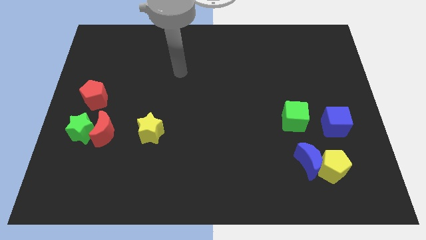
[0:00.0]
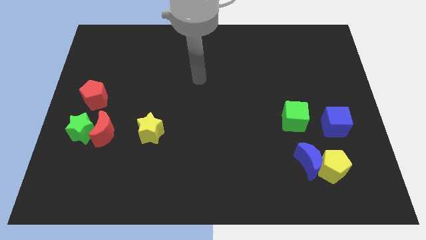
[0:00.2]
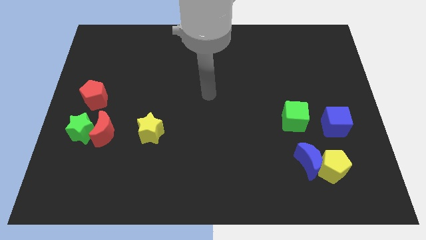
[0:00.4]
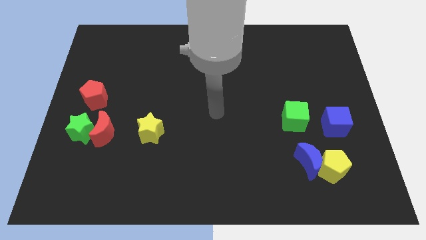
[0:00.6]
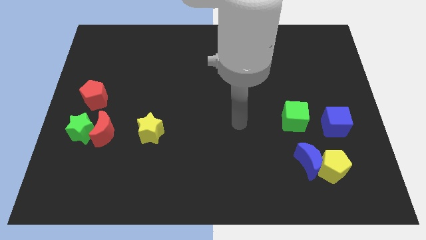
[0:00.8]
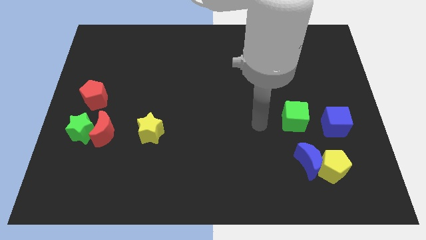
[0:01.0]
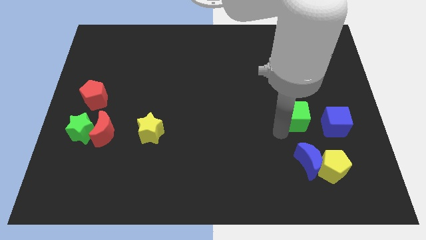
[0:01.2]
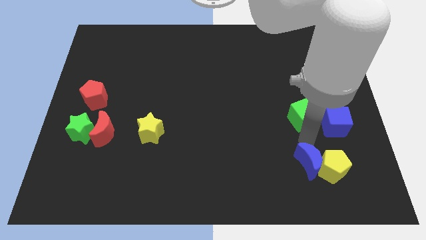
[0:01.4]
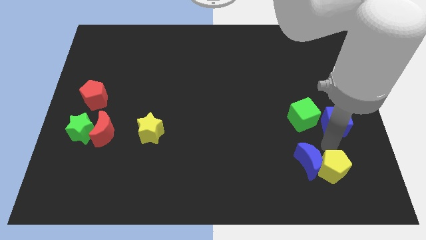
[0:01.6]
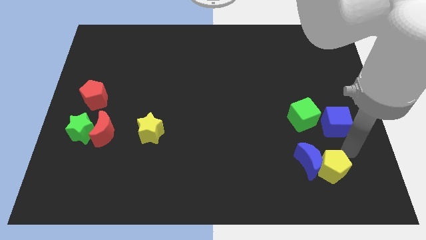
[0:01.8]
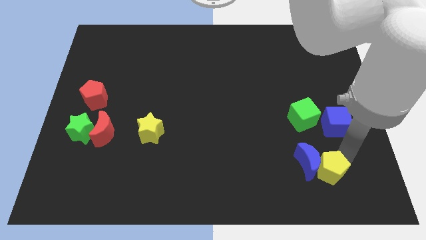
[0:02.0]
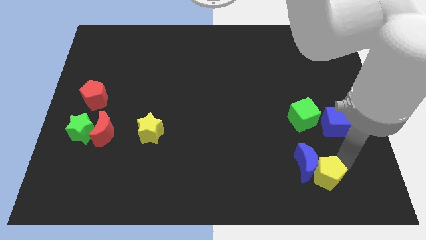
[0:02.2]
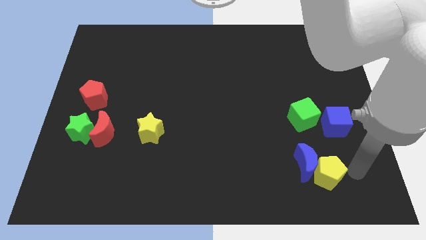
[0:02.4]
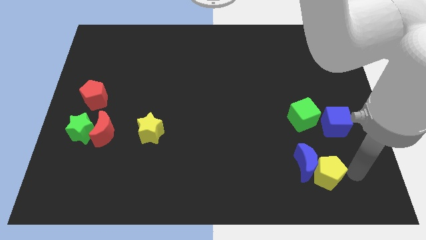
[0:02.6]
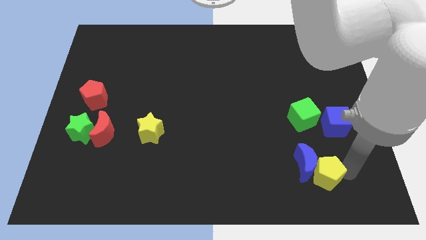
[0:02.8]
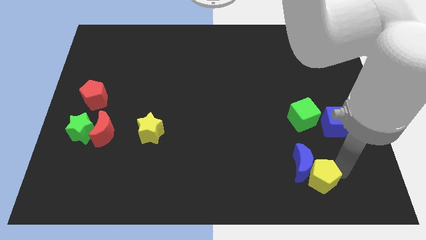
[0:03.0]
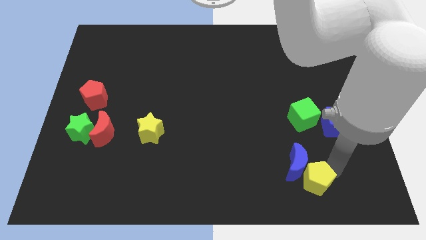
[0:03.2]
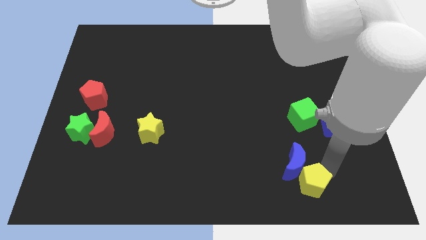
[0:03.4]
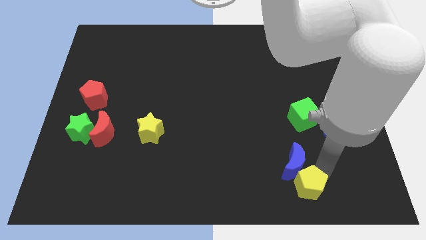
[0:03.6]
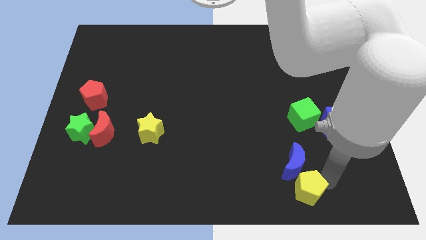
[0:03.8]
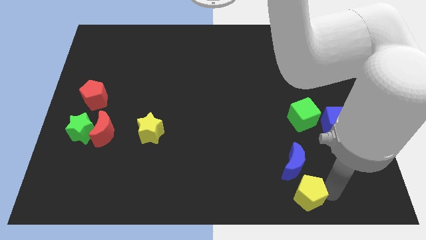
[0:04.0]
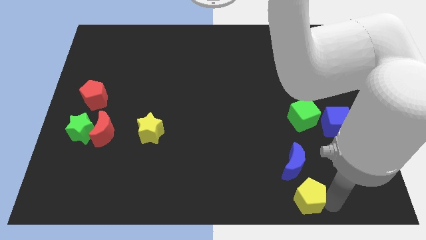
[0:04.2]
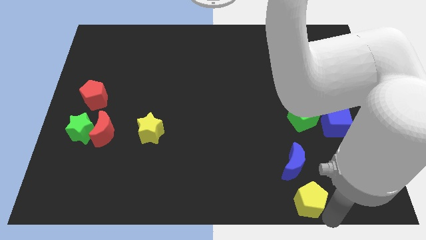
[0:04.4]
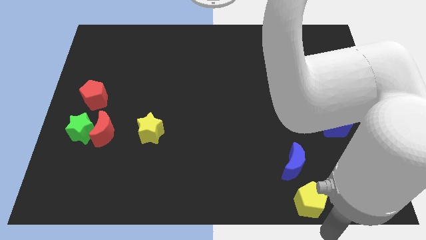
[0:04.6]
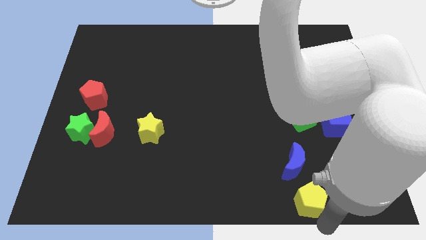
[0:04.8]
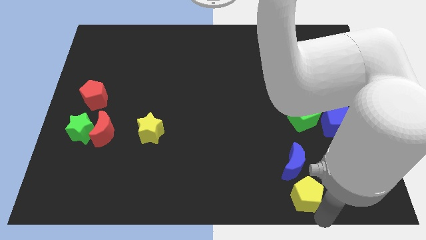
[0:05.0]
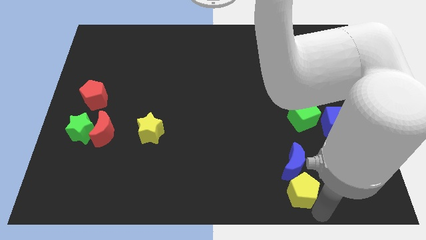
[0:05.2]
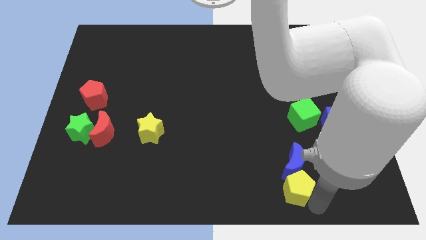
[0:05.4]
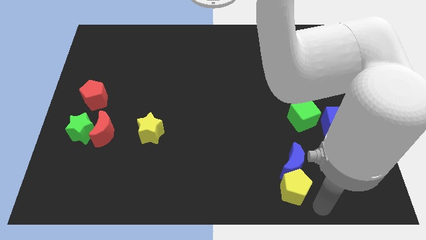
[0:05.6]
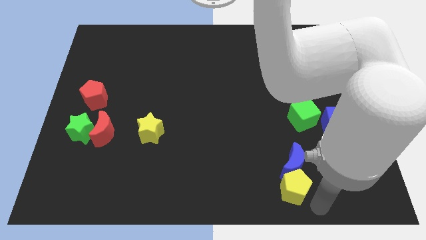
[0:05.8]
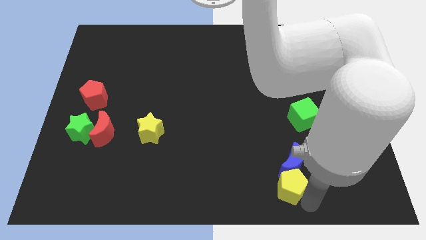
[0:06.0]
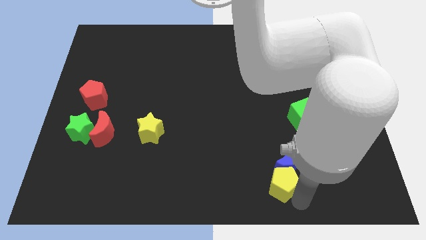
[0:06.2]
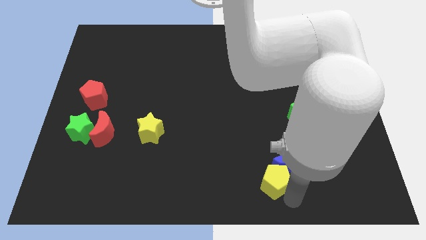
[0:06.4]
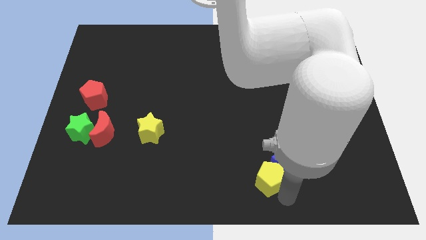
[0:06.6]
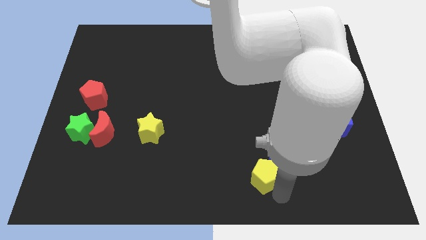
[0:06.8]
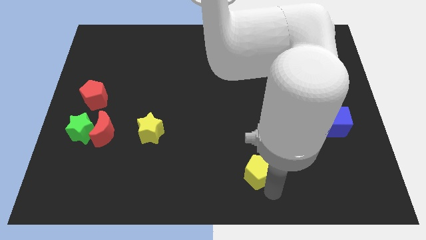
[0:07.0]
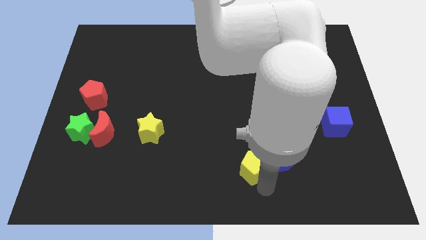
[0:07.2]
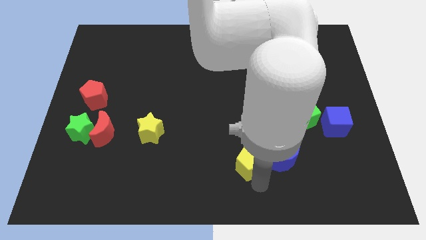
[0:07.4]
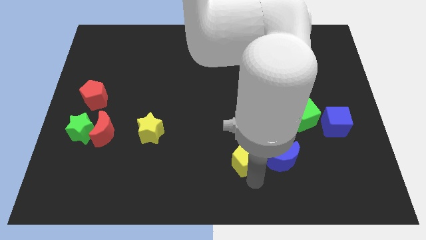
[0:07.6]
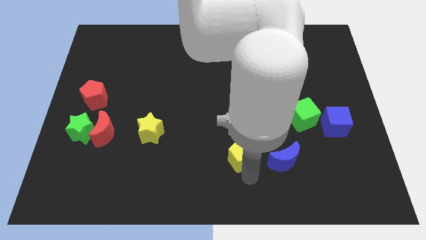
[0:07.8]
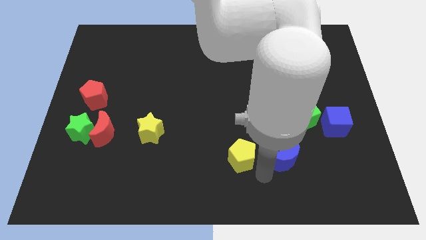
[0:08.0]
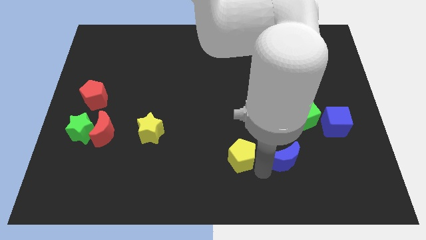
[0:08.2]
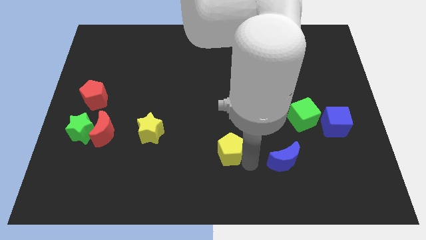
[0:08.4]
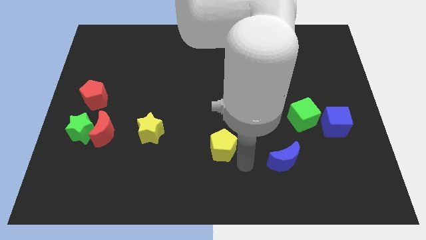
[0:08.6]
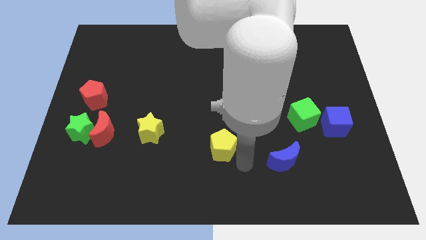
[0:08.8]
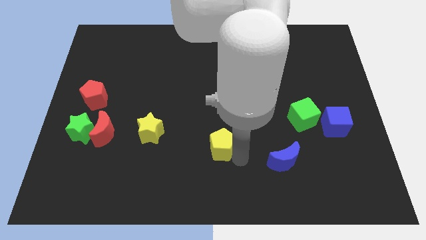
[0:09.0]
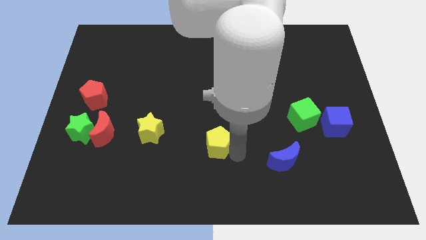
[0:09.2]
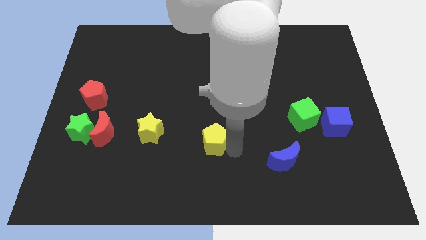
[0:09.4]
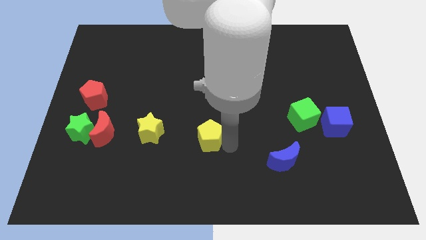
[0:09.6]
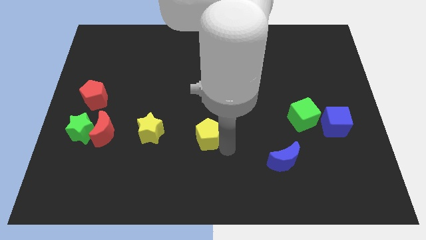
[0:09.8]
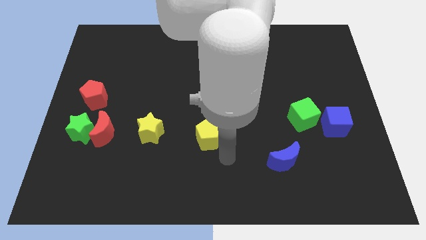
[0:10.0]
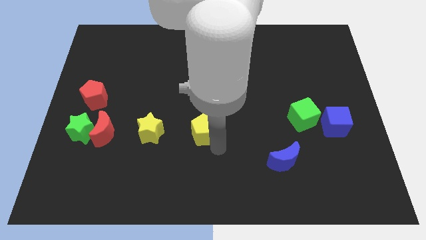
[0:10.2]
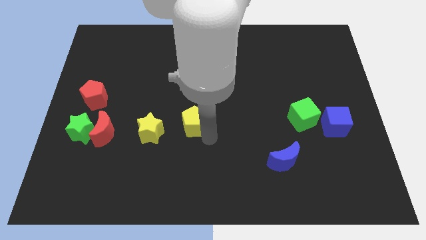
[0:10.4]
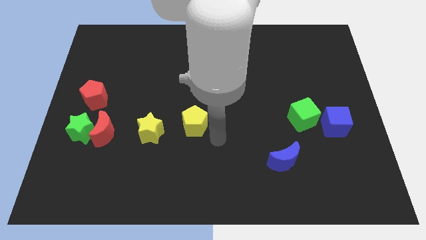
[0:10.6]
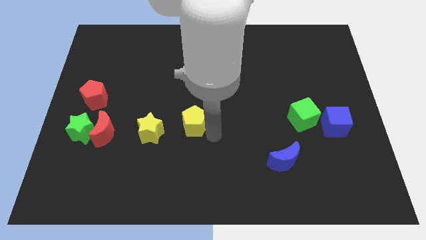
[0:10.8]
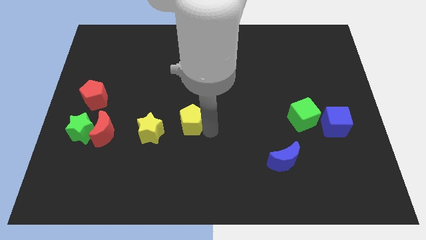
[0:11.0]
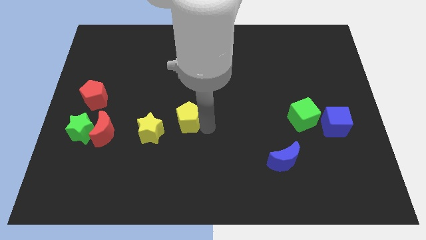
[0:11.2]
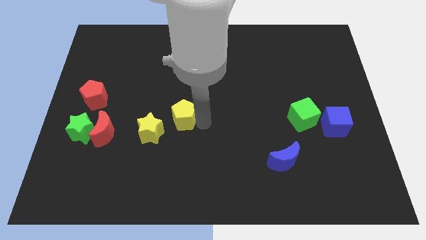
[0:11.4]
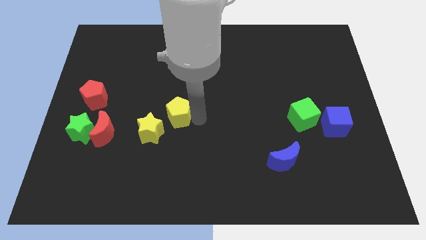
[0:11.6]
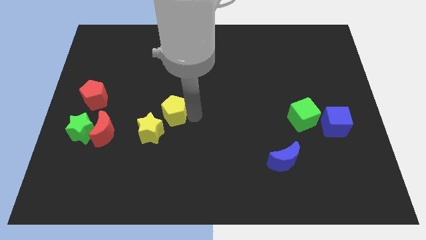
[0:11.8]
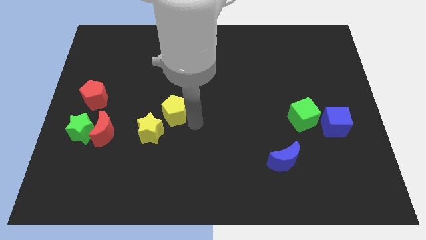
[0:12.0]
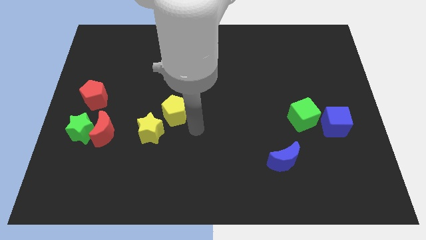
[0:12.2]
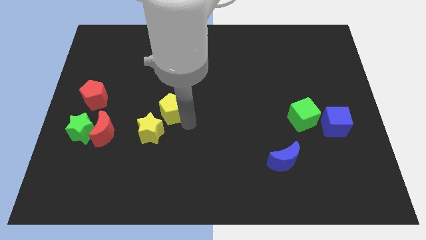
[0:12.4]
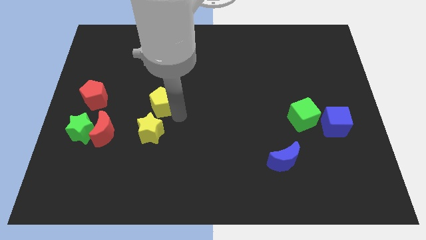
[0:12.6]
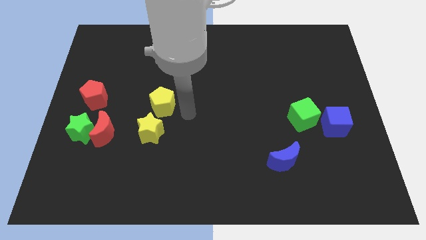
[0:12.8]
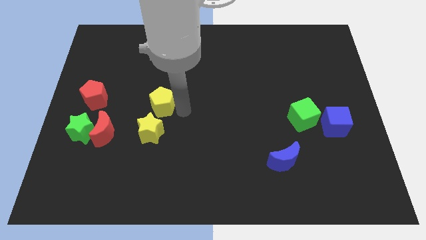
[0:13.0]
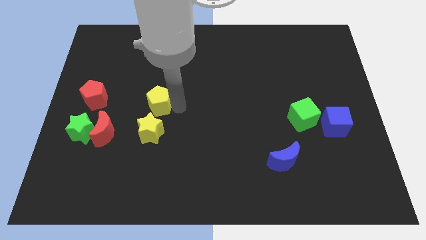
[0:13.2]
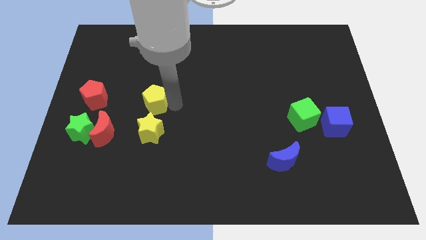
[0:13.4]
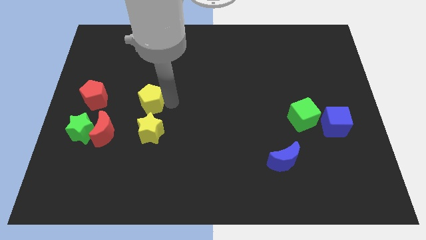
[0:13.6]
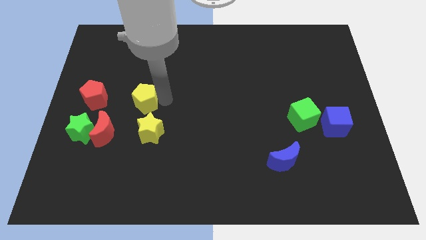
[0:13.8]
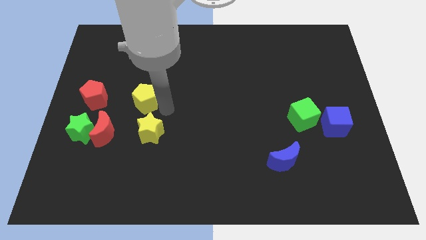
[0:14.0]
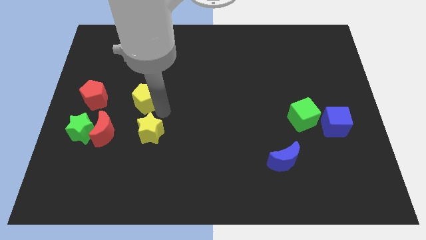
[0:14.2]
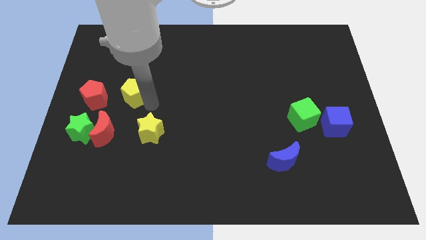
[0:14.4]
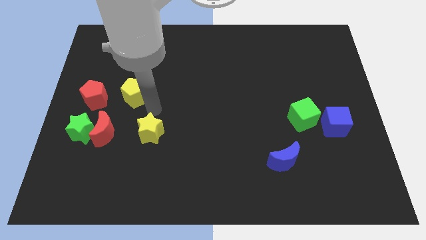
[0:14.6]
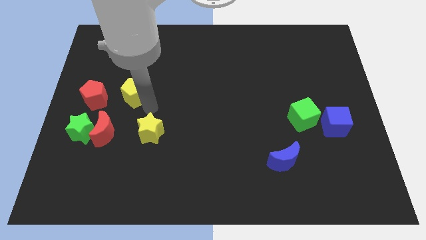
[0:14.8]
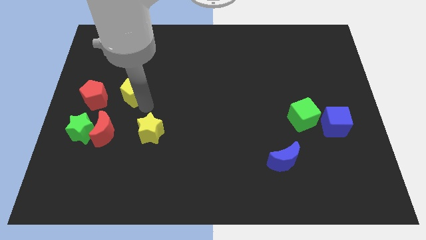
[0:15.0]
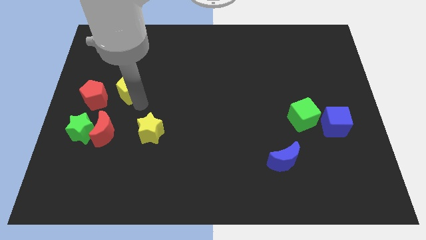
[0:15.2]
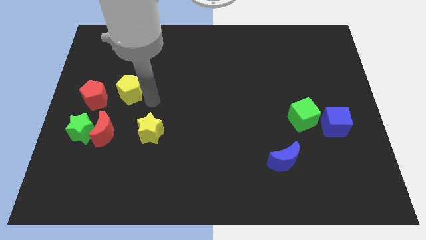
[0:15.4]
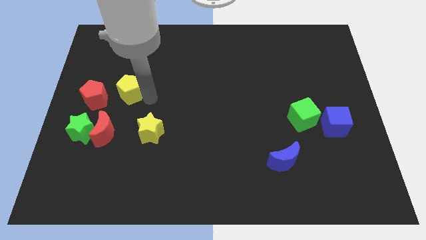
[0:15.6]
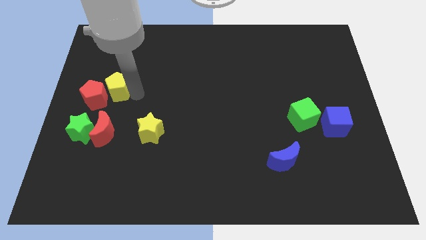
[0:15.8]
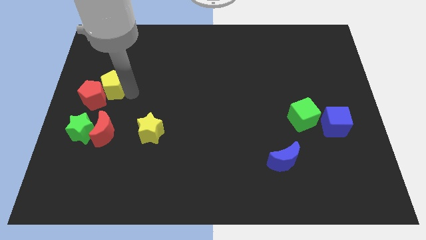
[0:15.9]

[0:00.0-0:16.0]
slide the yellow pentagon to the top side of the green star
